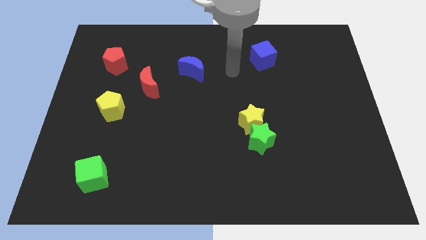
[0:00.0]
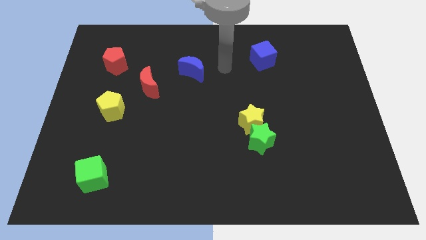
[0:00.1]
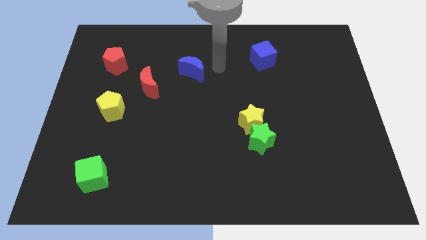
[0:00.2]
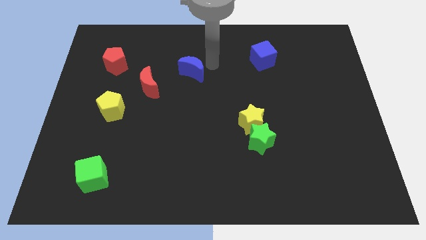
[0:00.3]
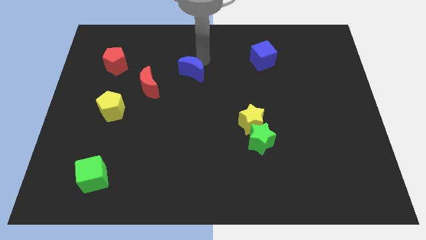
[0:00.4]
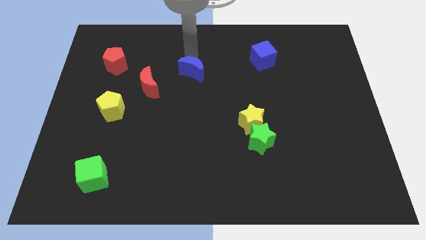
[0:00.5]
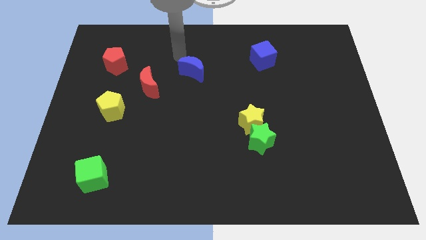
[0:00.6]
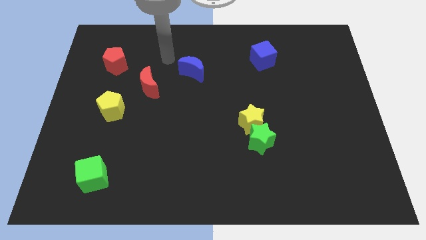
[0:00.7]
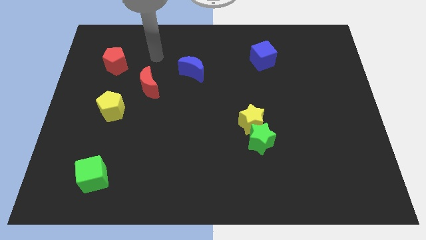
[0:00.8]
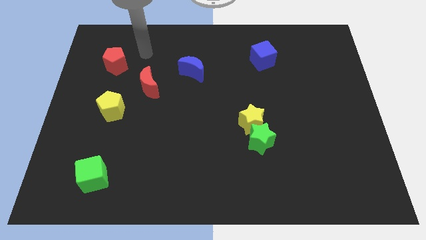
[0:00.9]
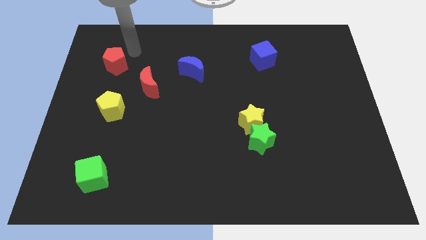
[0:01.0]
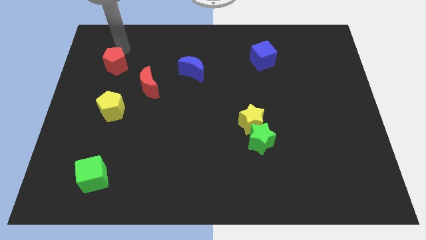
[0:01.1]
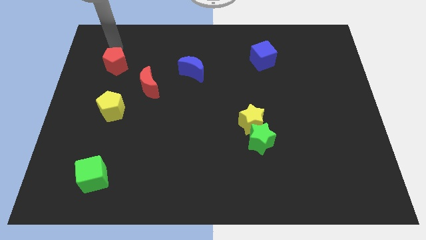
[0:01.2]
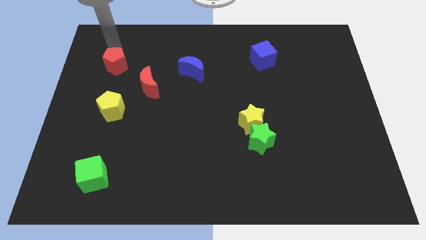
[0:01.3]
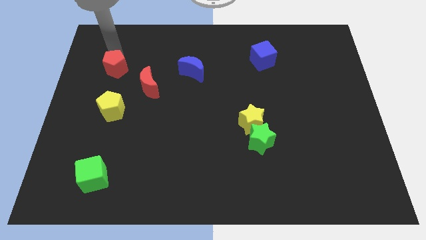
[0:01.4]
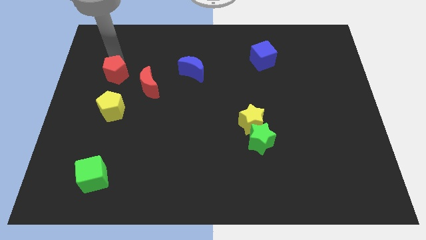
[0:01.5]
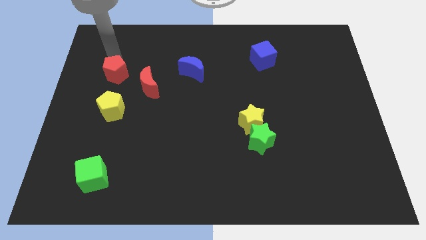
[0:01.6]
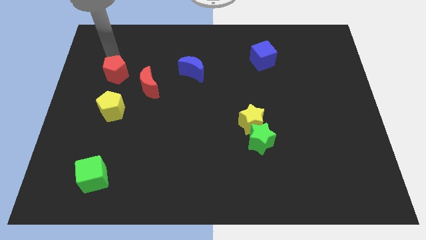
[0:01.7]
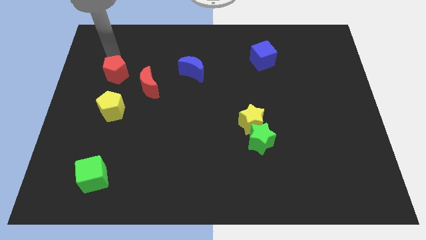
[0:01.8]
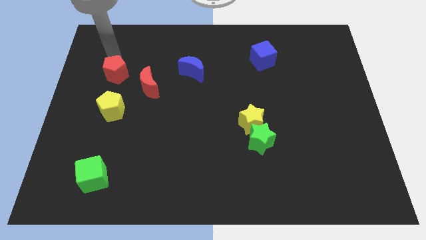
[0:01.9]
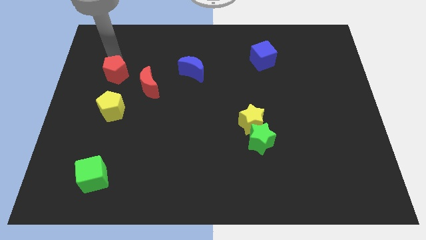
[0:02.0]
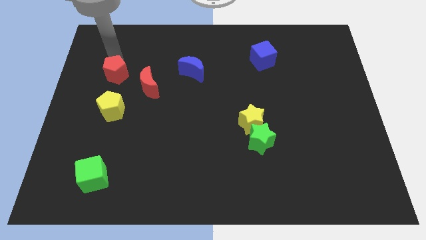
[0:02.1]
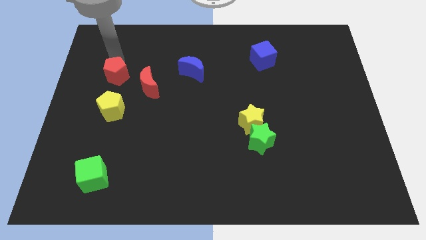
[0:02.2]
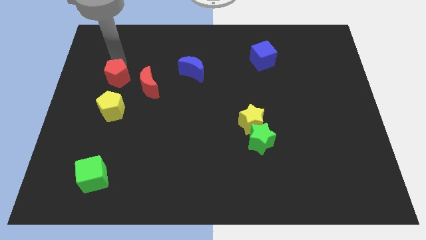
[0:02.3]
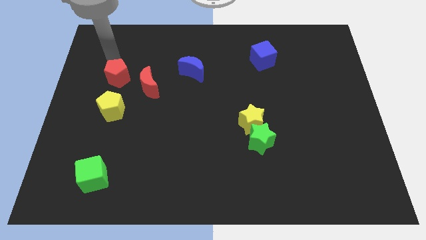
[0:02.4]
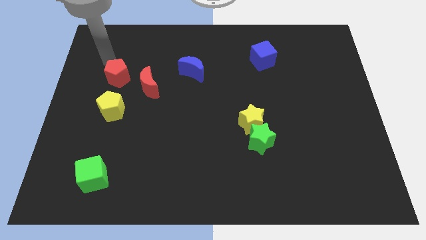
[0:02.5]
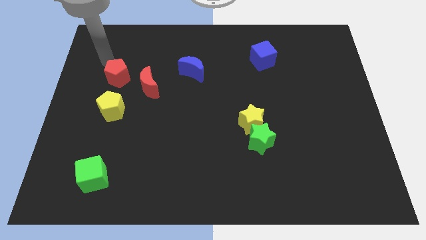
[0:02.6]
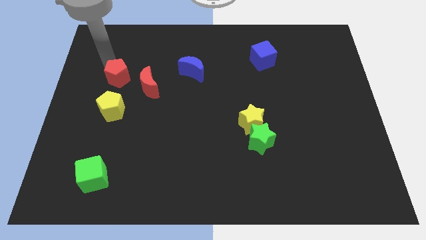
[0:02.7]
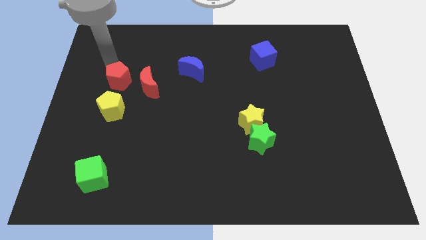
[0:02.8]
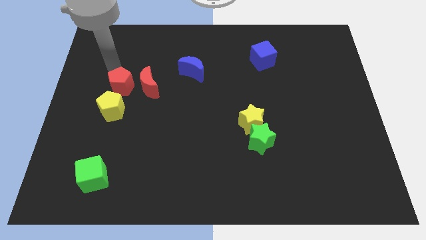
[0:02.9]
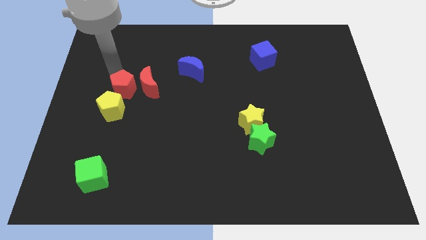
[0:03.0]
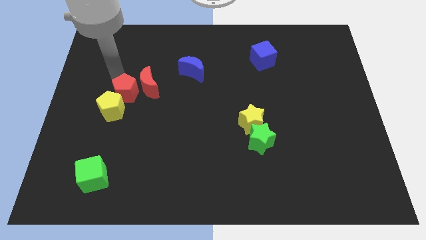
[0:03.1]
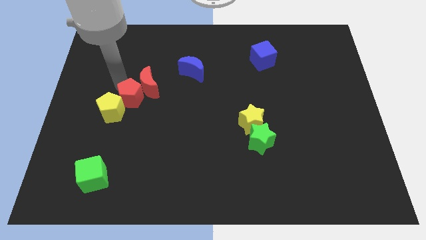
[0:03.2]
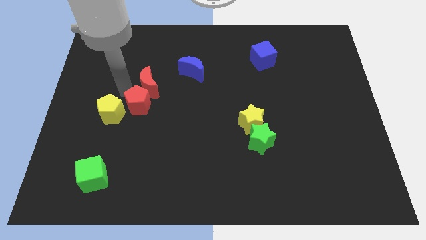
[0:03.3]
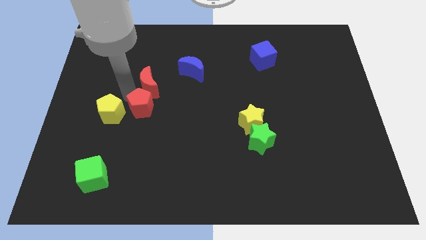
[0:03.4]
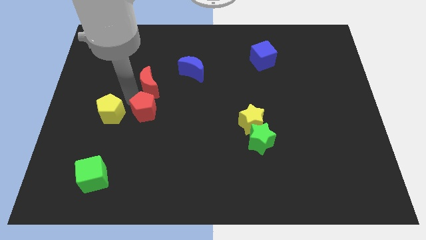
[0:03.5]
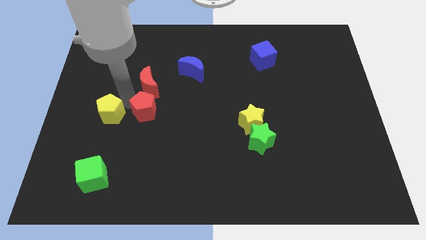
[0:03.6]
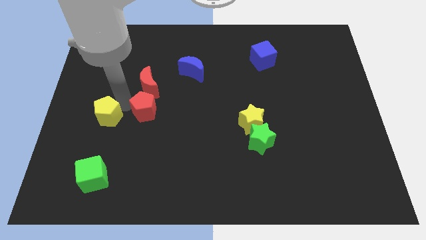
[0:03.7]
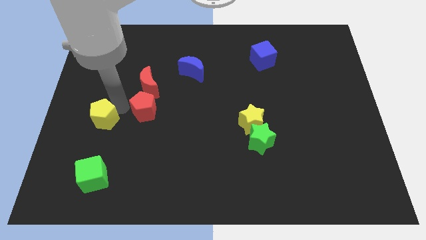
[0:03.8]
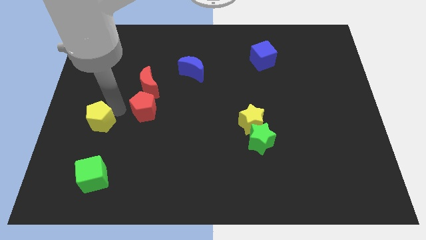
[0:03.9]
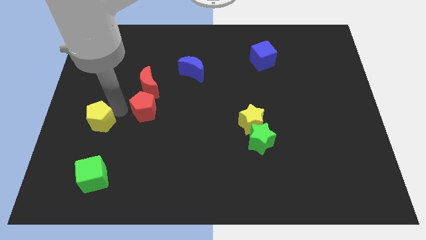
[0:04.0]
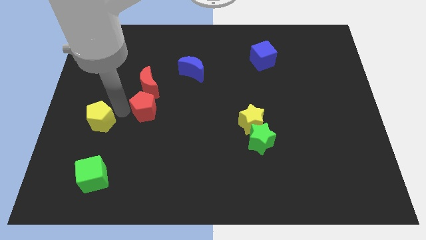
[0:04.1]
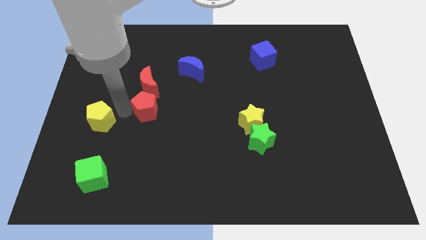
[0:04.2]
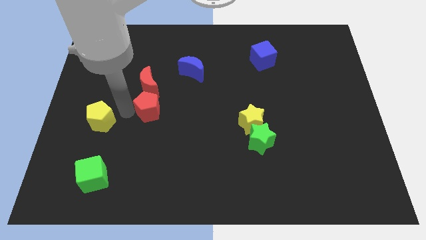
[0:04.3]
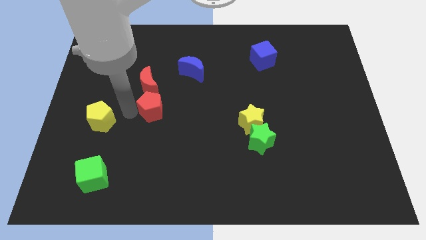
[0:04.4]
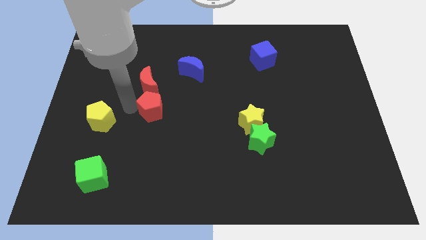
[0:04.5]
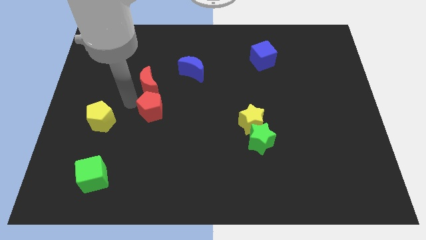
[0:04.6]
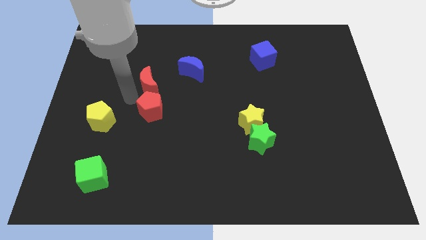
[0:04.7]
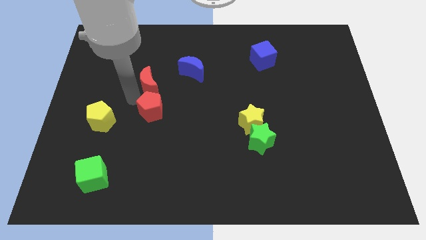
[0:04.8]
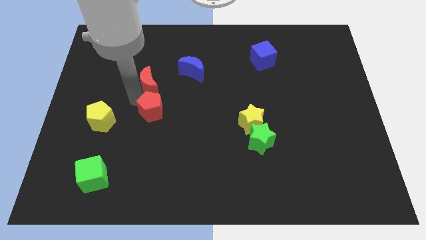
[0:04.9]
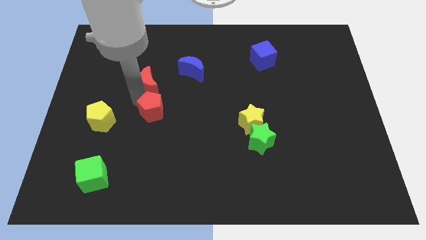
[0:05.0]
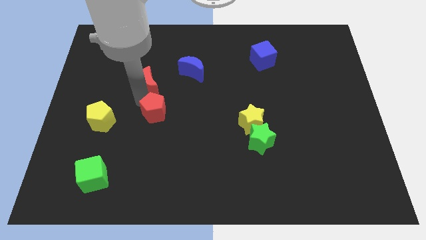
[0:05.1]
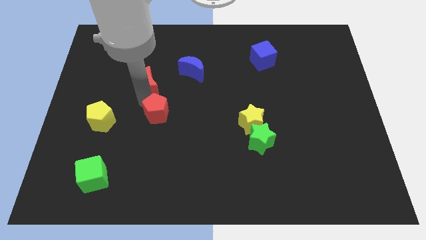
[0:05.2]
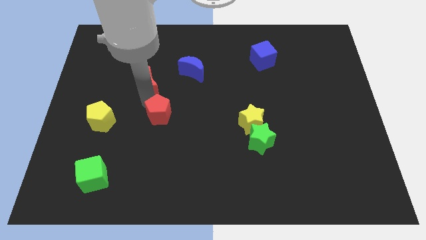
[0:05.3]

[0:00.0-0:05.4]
slide the red pentagon down and right diagonally

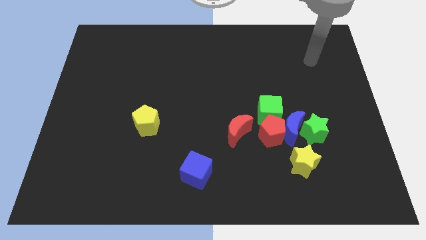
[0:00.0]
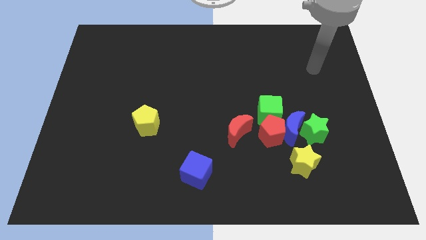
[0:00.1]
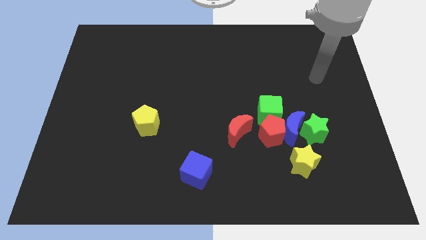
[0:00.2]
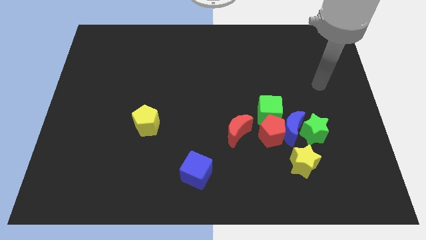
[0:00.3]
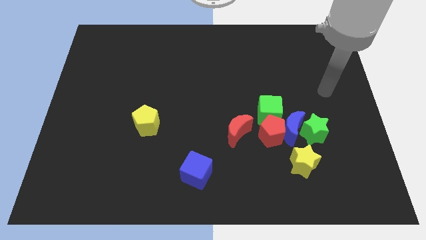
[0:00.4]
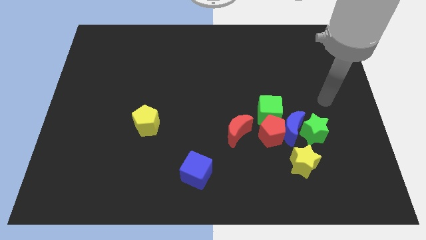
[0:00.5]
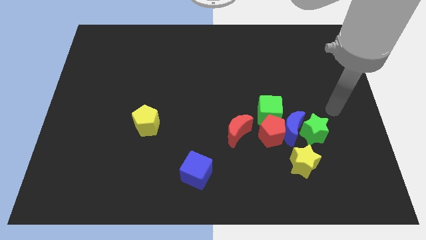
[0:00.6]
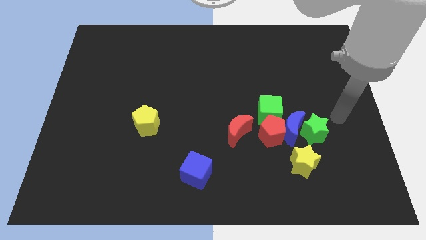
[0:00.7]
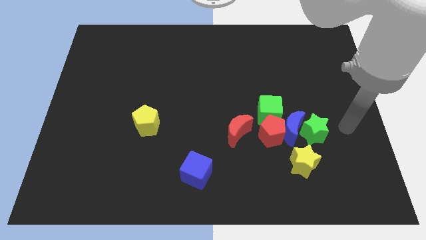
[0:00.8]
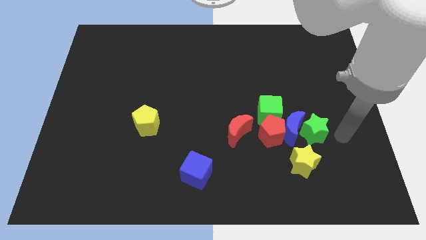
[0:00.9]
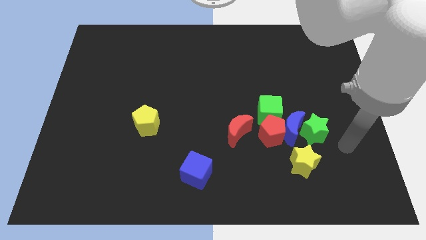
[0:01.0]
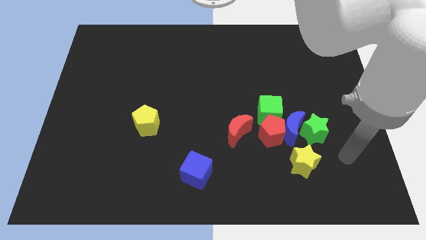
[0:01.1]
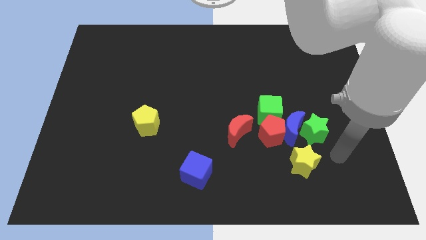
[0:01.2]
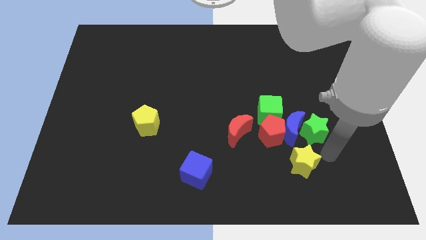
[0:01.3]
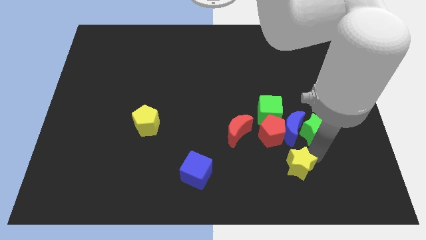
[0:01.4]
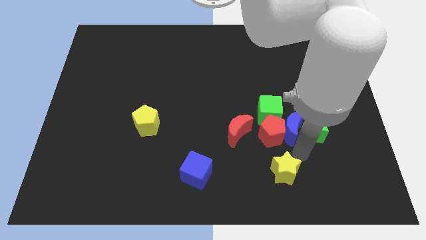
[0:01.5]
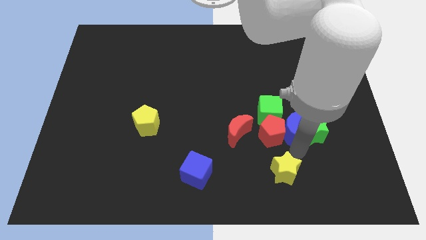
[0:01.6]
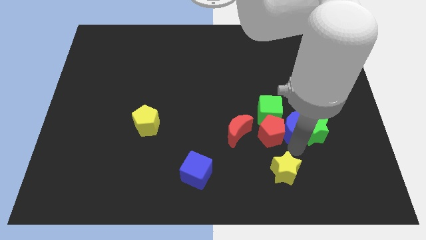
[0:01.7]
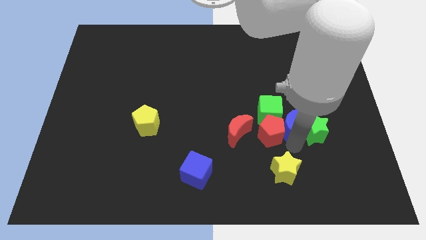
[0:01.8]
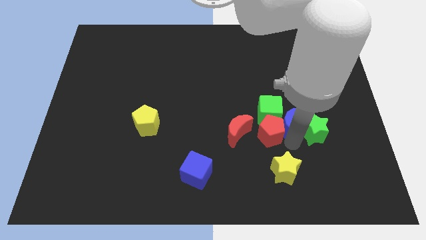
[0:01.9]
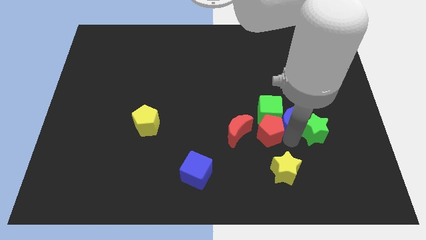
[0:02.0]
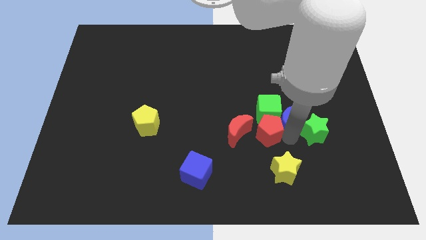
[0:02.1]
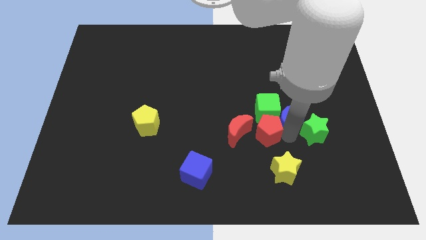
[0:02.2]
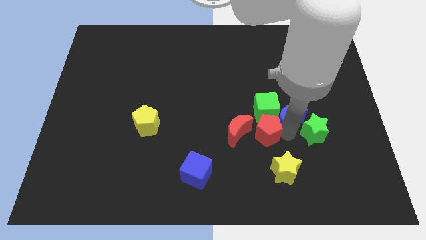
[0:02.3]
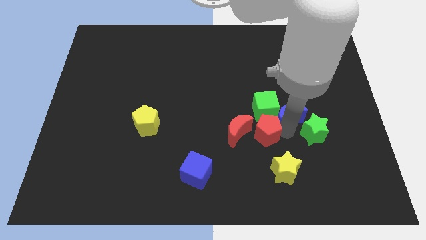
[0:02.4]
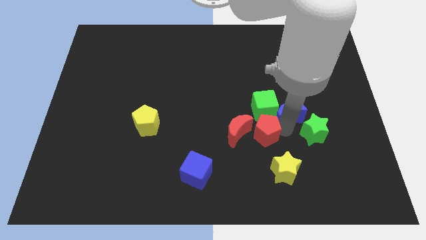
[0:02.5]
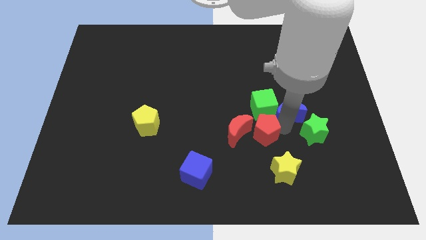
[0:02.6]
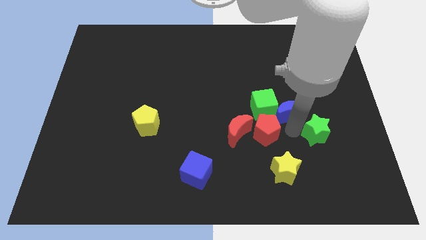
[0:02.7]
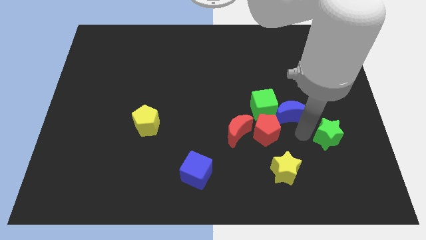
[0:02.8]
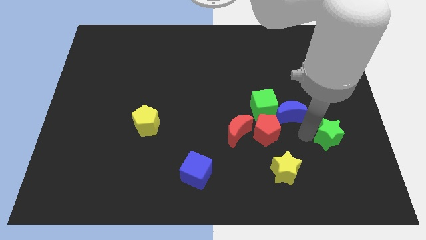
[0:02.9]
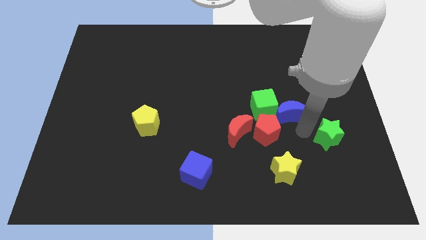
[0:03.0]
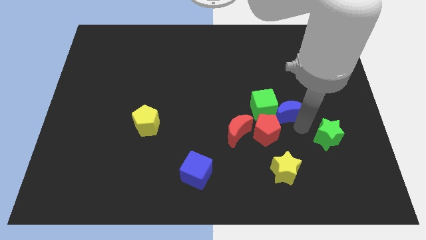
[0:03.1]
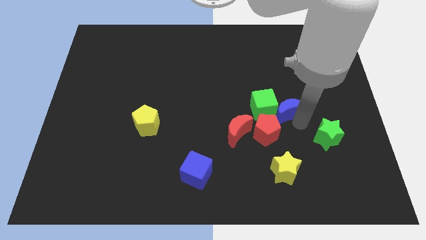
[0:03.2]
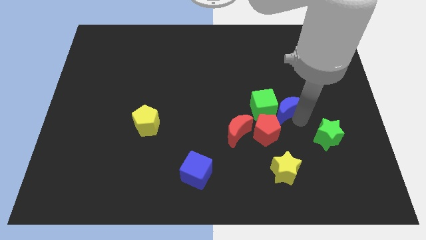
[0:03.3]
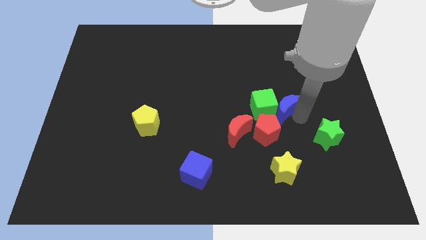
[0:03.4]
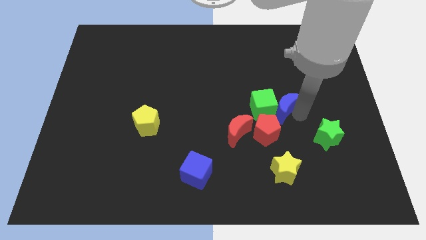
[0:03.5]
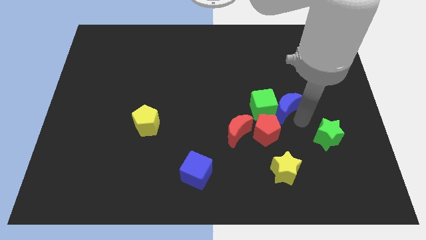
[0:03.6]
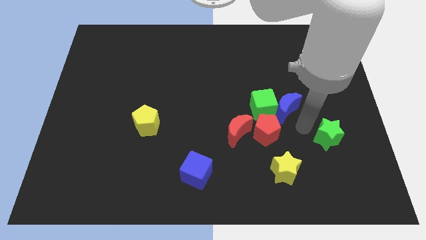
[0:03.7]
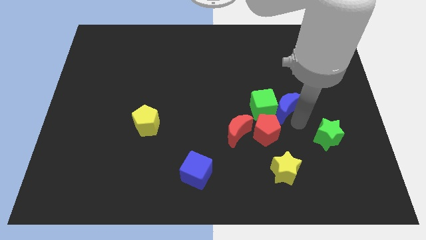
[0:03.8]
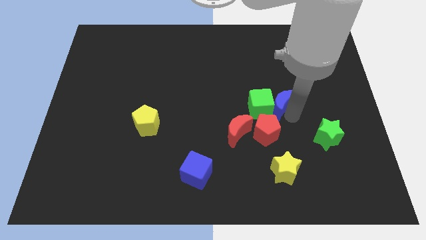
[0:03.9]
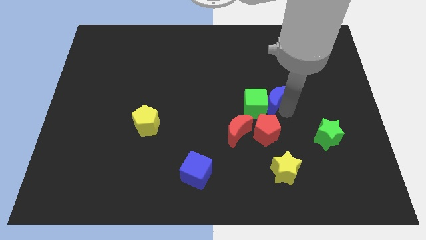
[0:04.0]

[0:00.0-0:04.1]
slide the blue moon upwards and then to the left a bit
